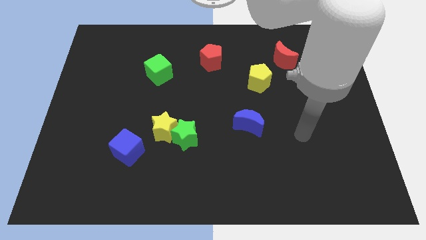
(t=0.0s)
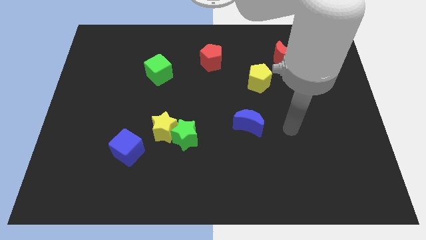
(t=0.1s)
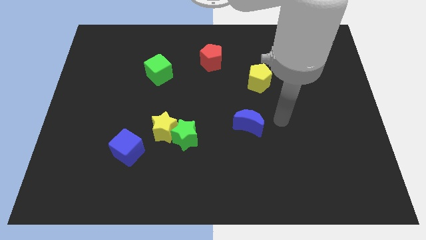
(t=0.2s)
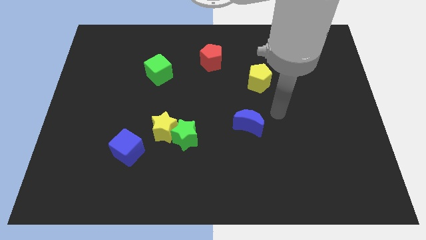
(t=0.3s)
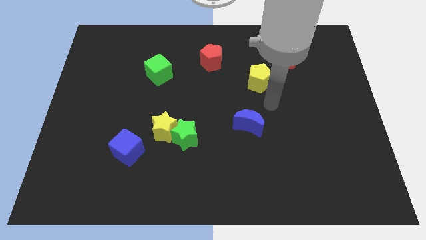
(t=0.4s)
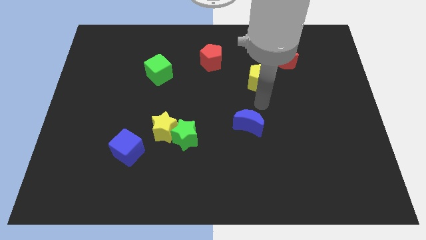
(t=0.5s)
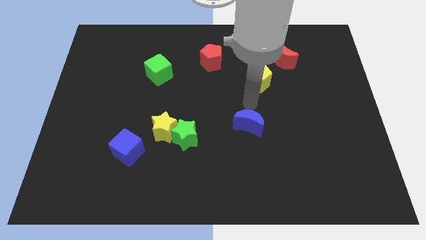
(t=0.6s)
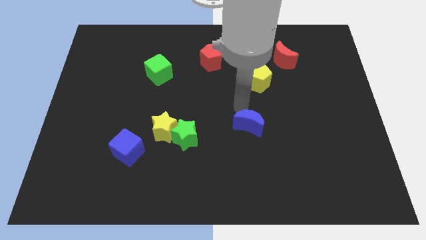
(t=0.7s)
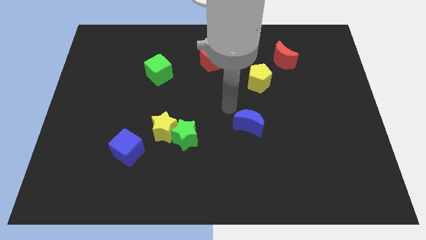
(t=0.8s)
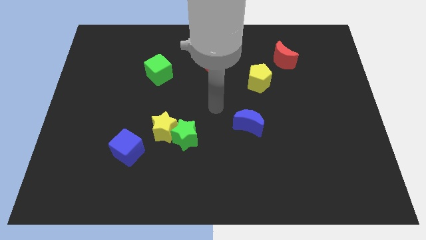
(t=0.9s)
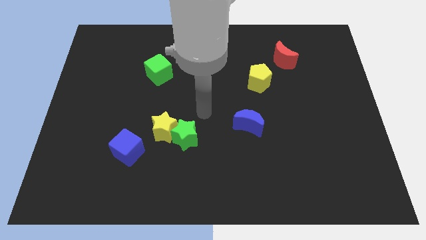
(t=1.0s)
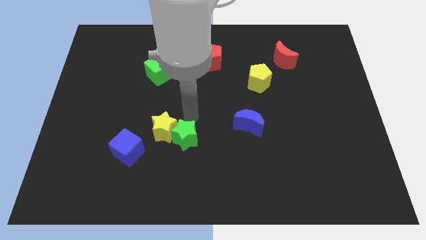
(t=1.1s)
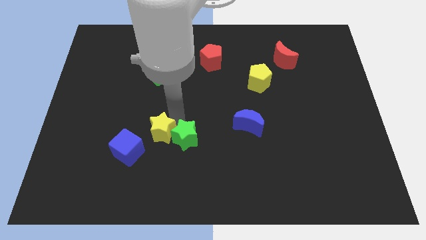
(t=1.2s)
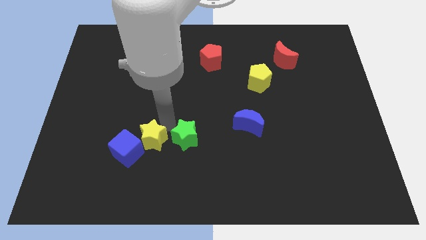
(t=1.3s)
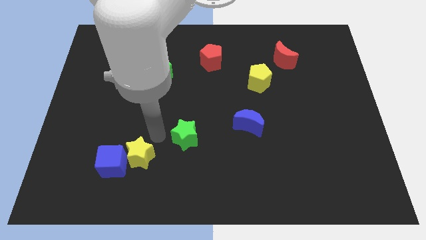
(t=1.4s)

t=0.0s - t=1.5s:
separate the green star from the yellow star

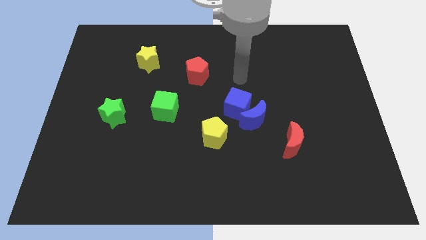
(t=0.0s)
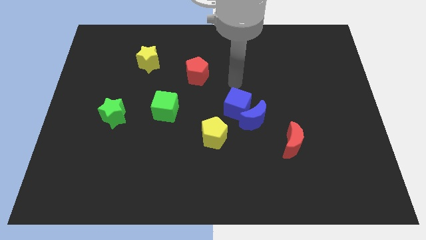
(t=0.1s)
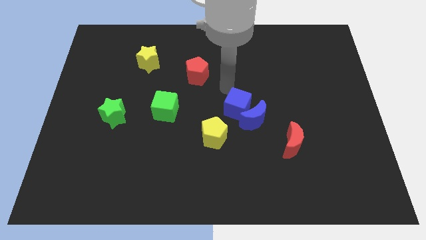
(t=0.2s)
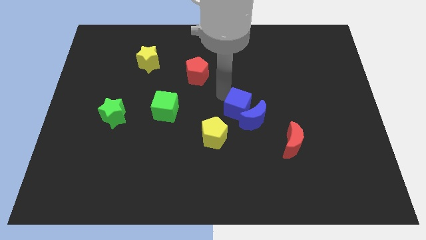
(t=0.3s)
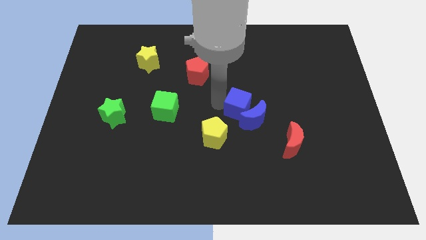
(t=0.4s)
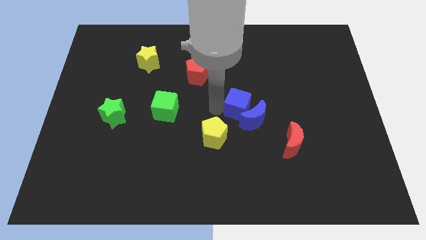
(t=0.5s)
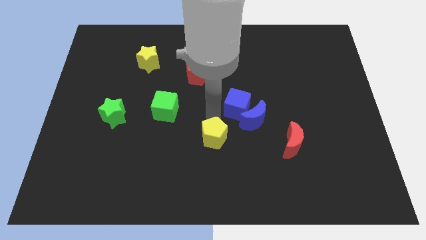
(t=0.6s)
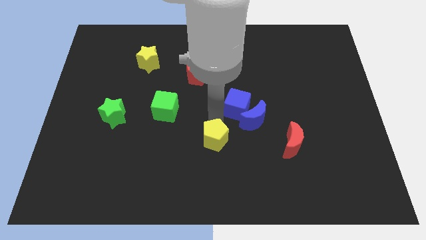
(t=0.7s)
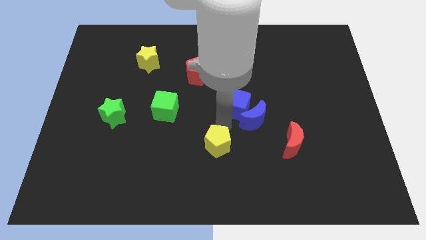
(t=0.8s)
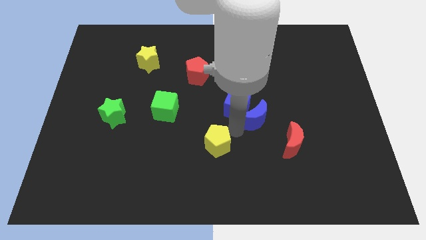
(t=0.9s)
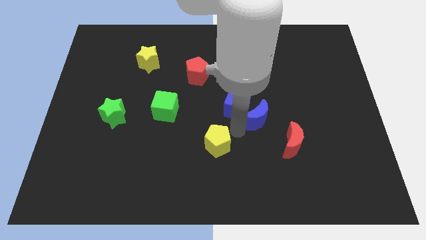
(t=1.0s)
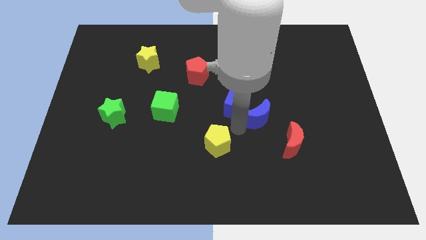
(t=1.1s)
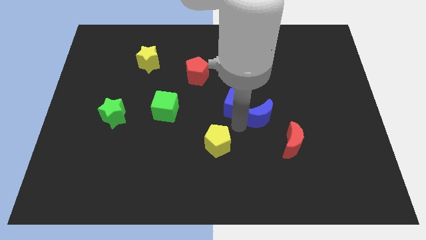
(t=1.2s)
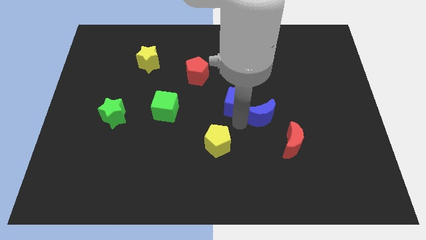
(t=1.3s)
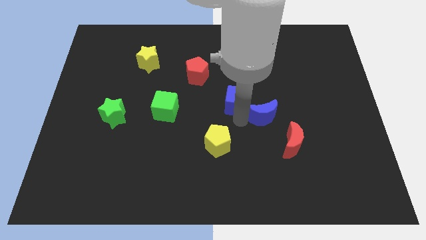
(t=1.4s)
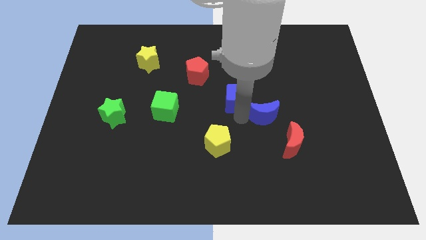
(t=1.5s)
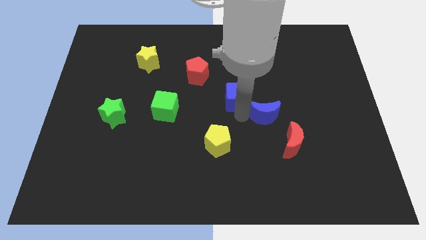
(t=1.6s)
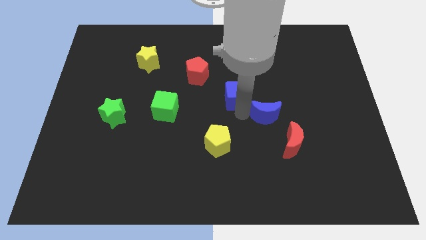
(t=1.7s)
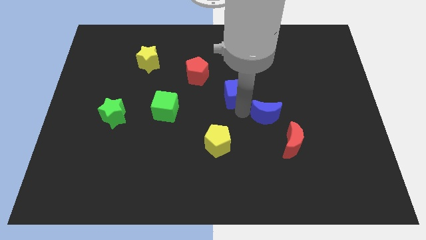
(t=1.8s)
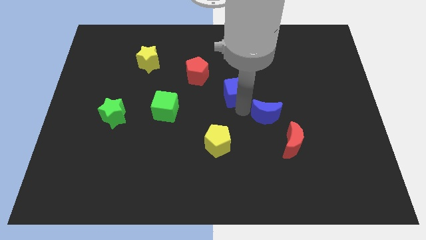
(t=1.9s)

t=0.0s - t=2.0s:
separate the blue cube from the blue moon and yellow pentagon

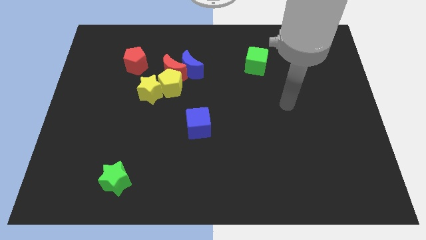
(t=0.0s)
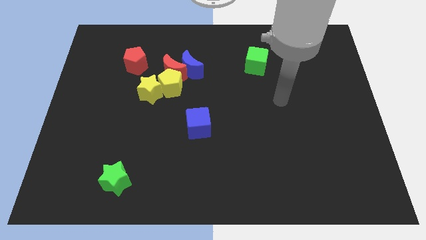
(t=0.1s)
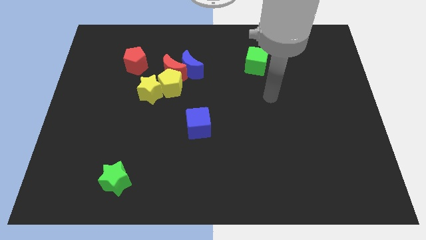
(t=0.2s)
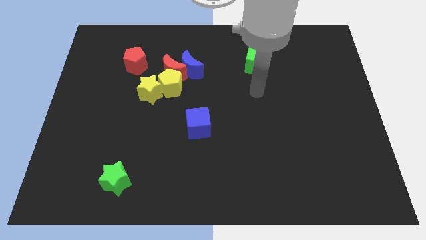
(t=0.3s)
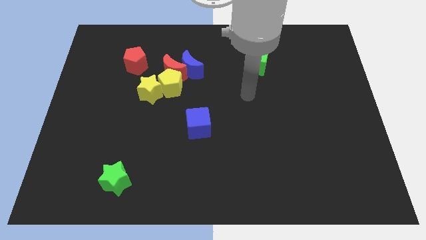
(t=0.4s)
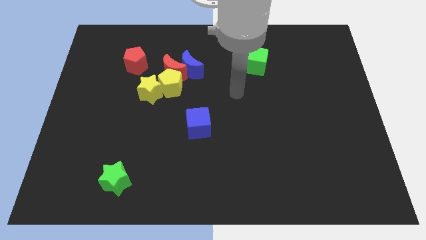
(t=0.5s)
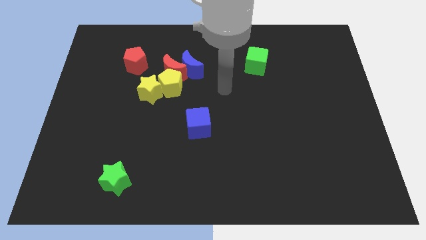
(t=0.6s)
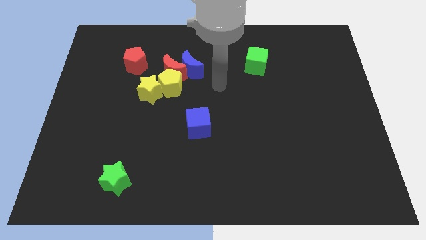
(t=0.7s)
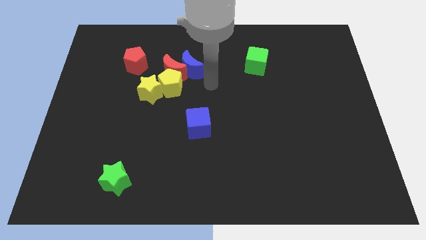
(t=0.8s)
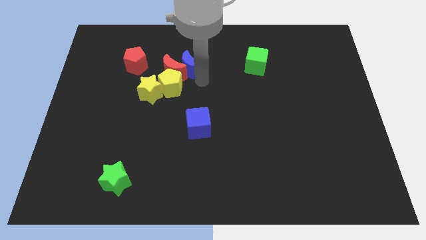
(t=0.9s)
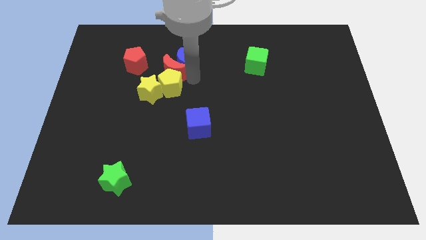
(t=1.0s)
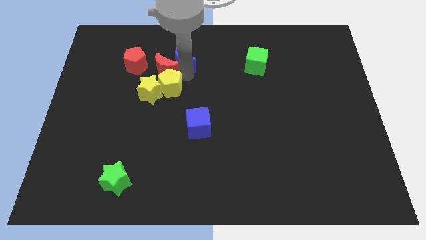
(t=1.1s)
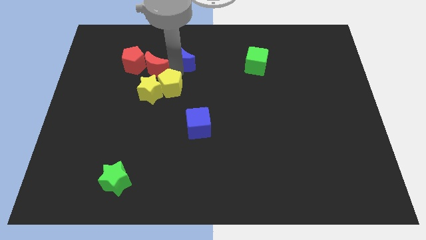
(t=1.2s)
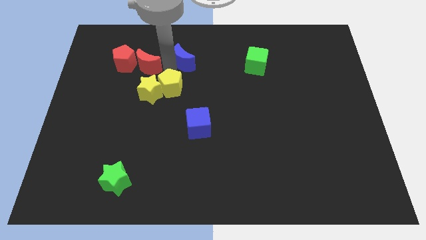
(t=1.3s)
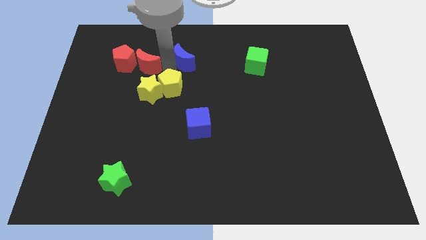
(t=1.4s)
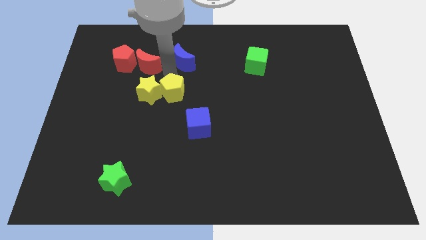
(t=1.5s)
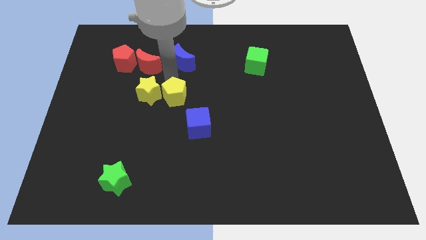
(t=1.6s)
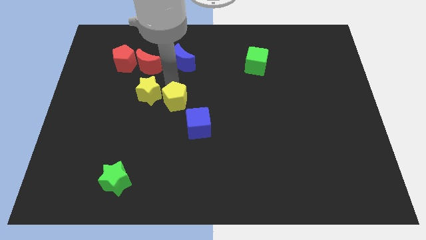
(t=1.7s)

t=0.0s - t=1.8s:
separate the yellow pentagon from the group of blocks

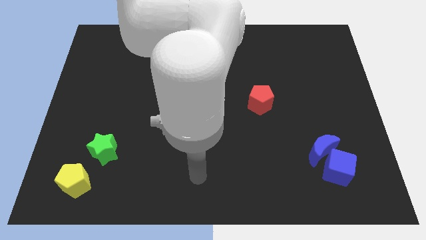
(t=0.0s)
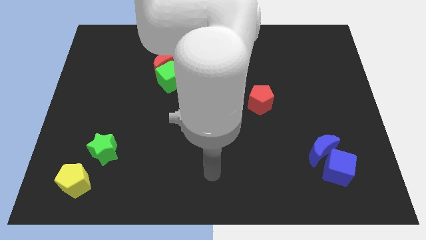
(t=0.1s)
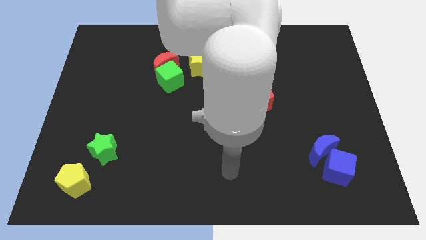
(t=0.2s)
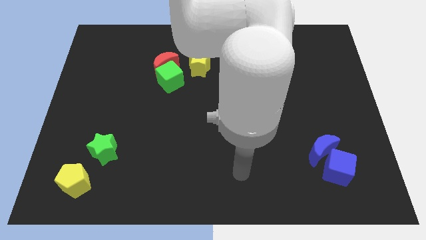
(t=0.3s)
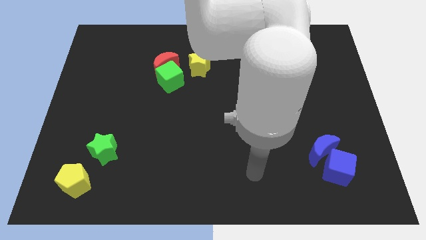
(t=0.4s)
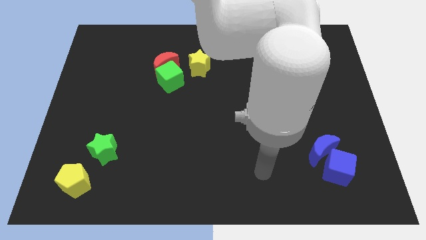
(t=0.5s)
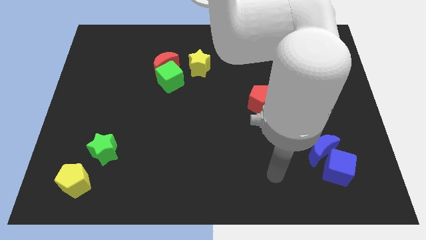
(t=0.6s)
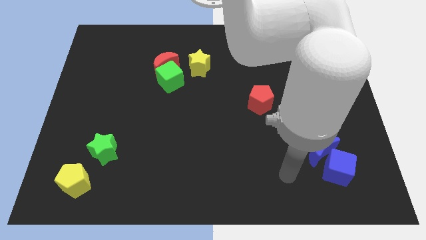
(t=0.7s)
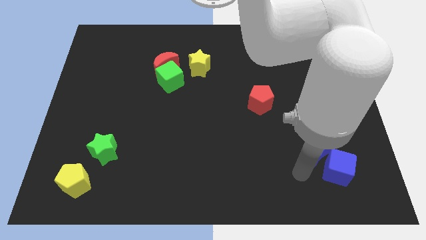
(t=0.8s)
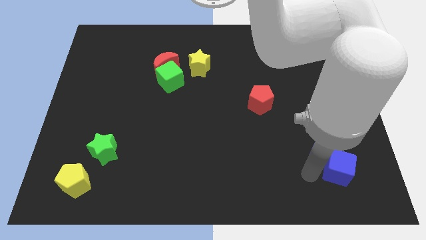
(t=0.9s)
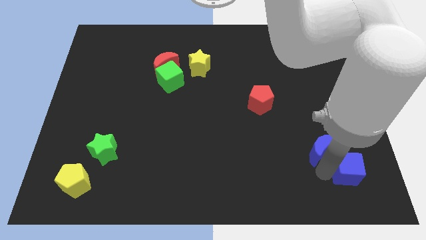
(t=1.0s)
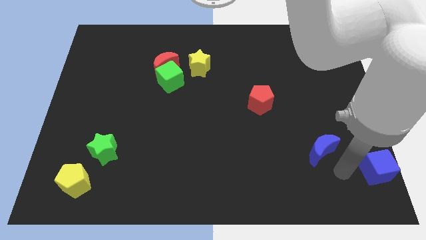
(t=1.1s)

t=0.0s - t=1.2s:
pull the blue moon apart from the blue cube

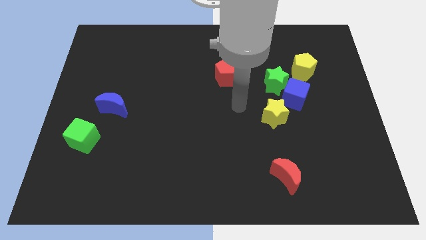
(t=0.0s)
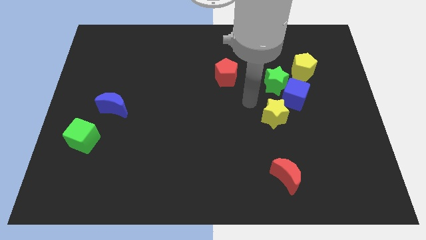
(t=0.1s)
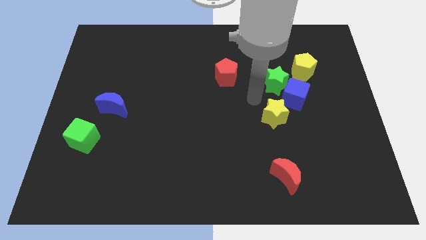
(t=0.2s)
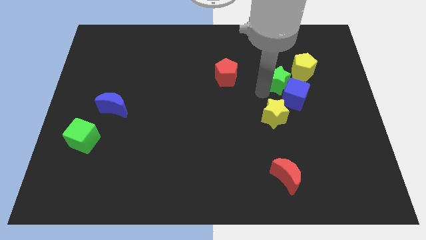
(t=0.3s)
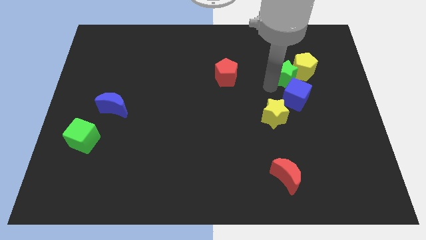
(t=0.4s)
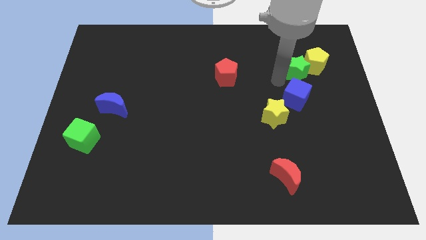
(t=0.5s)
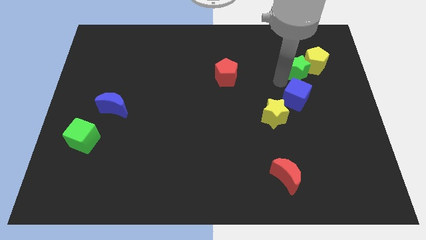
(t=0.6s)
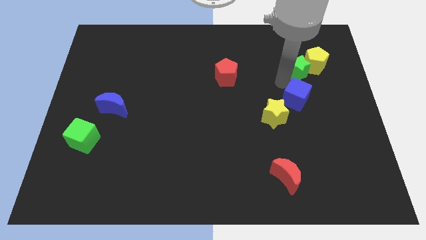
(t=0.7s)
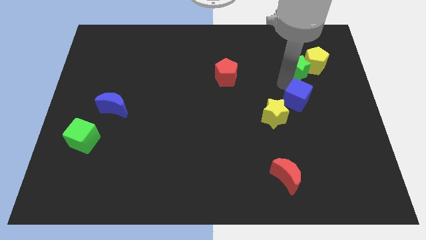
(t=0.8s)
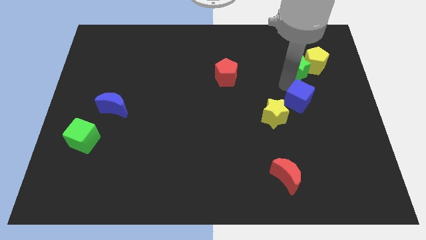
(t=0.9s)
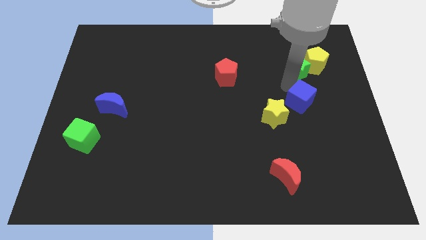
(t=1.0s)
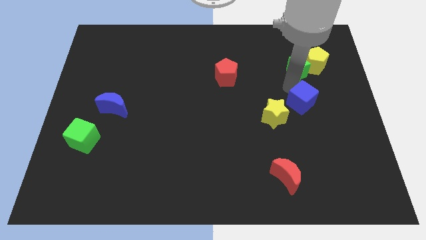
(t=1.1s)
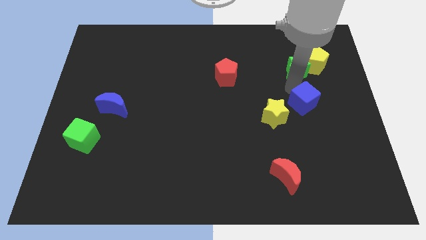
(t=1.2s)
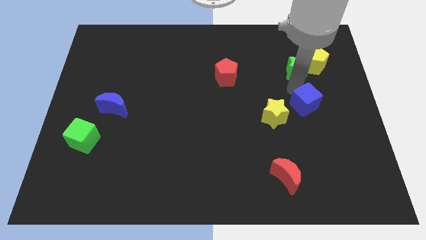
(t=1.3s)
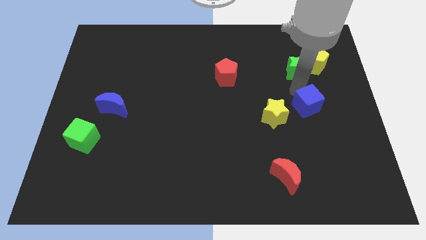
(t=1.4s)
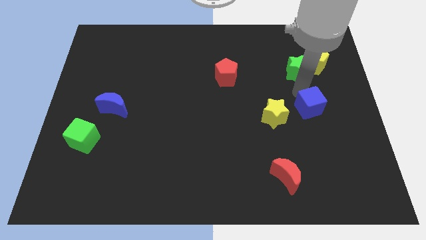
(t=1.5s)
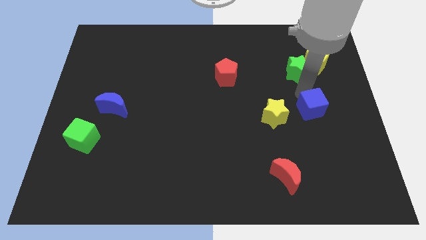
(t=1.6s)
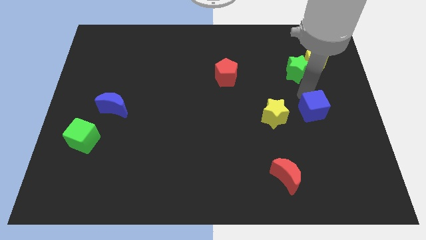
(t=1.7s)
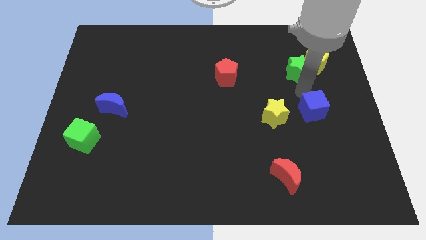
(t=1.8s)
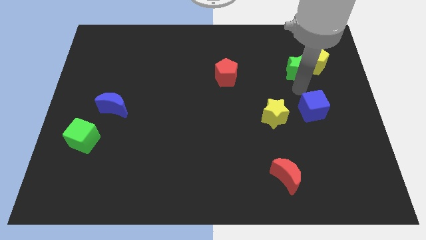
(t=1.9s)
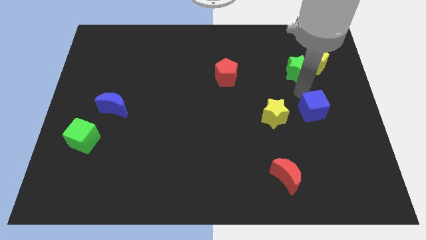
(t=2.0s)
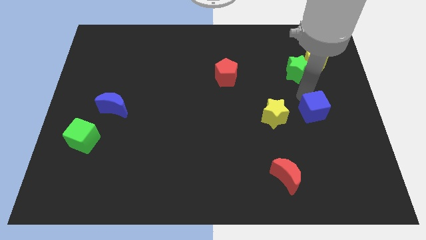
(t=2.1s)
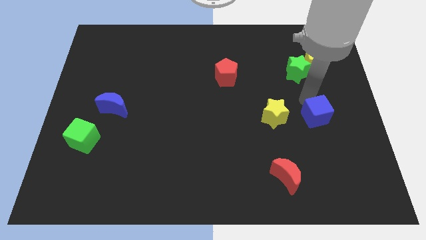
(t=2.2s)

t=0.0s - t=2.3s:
separate the blue cube from the green star, yellow star, and yellow pentagon

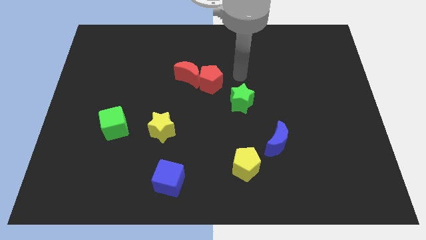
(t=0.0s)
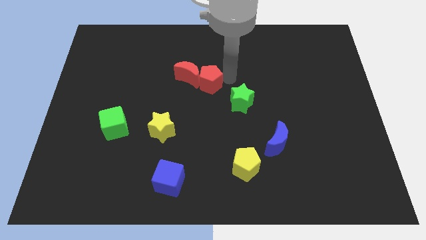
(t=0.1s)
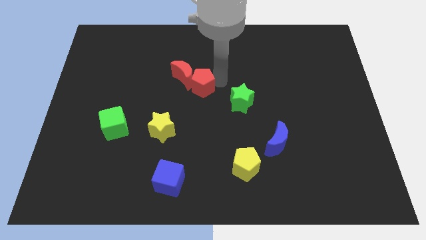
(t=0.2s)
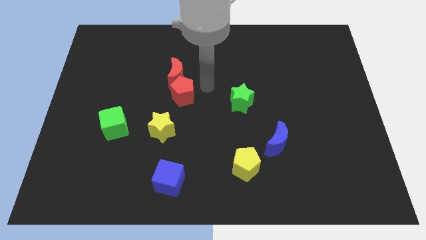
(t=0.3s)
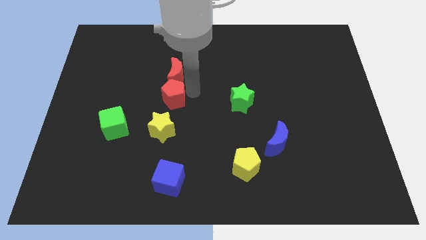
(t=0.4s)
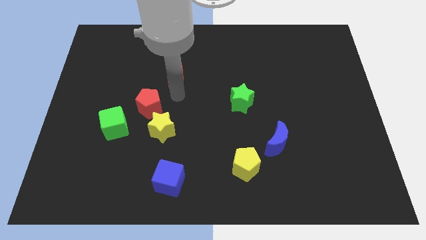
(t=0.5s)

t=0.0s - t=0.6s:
separate the red moon from the red pentagon
